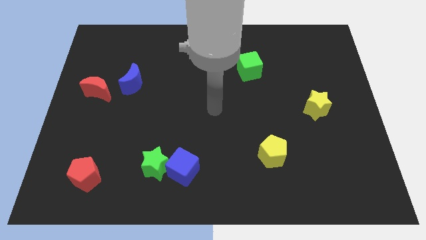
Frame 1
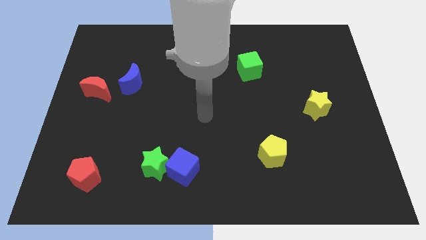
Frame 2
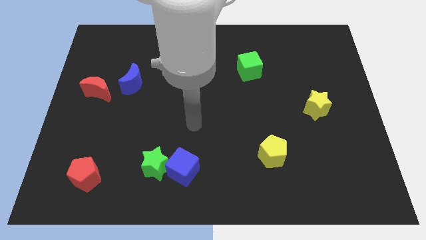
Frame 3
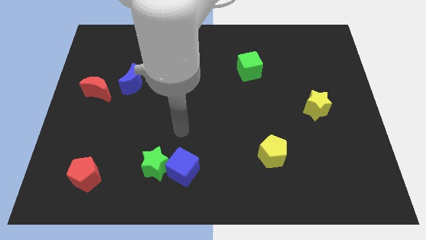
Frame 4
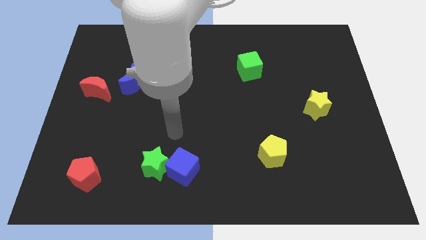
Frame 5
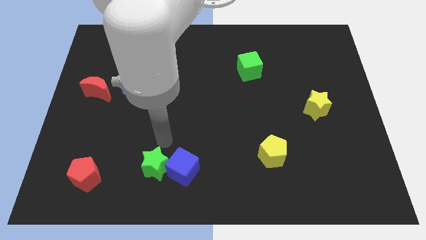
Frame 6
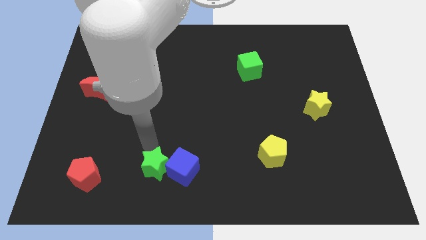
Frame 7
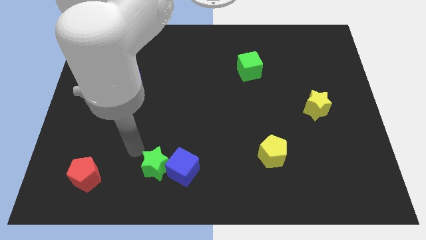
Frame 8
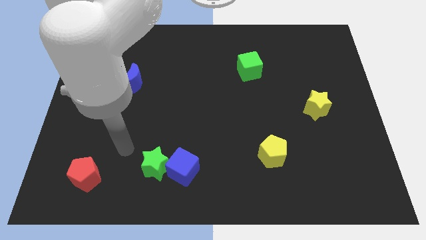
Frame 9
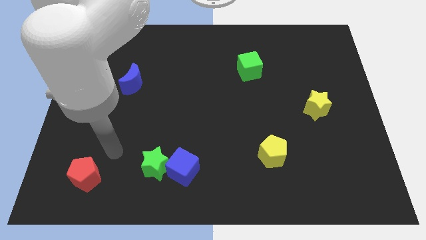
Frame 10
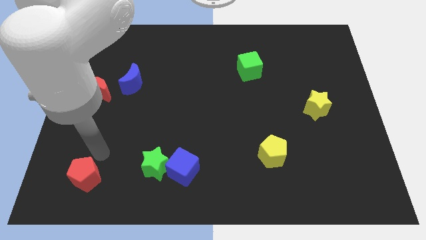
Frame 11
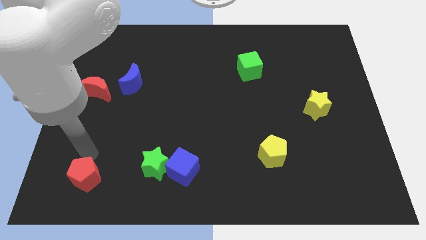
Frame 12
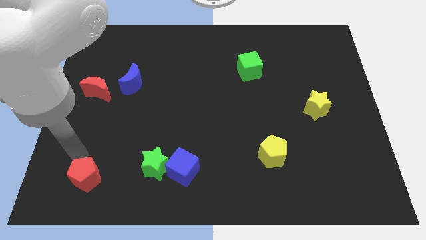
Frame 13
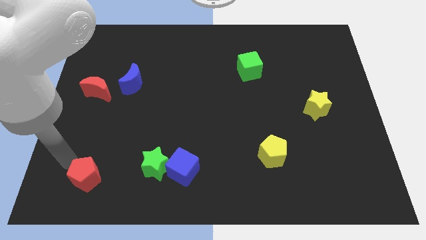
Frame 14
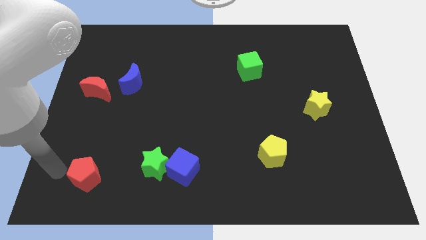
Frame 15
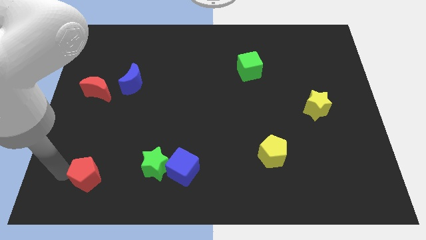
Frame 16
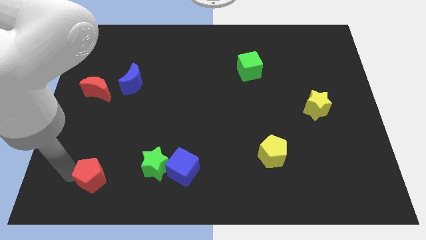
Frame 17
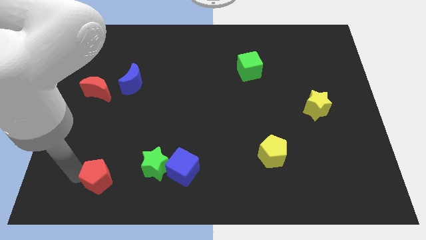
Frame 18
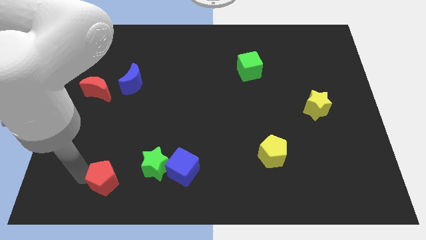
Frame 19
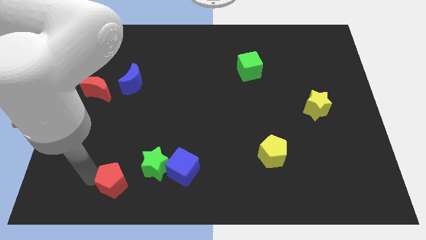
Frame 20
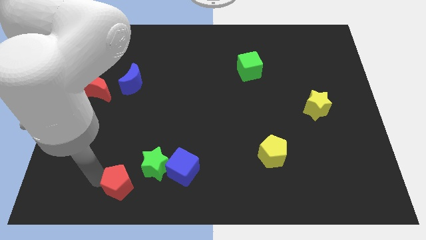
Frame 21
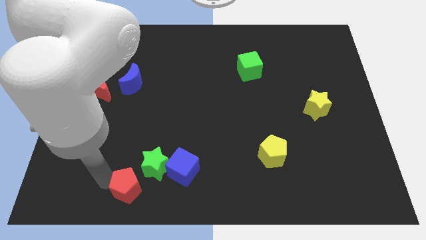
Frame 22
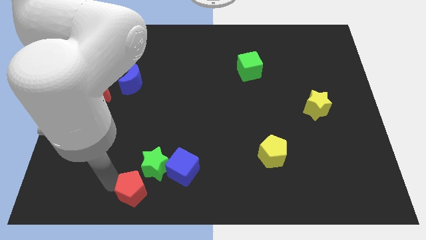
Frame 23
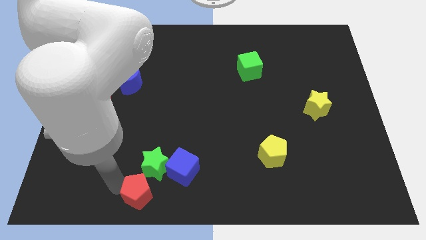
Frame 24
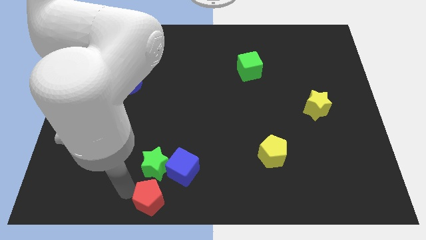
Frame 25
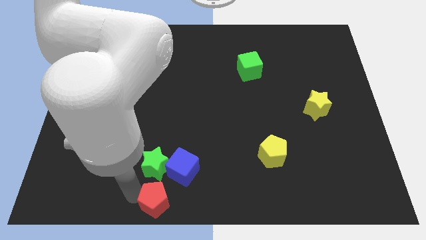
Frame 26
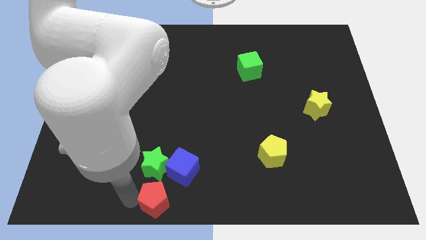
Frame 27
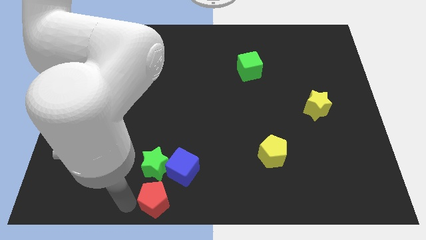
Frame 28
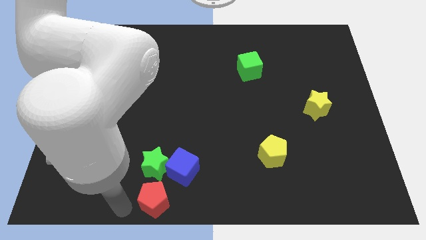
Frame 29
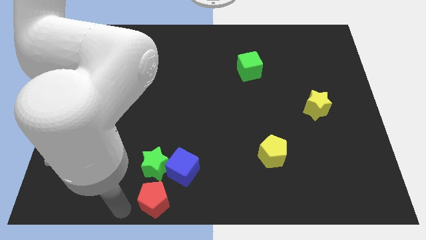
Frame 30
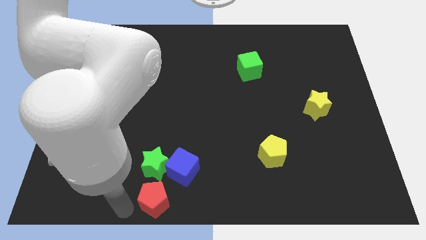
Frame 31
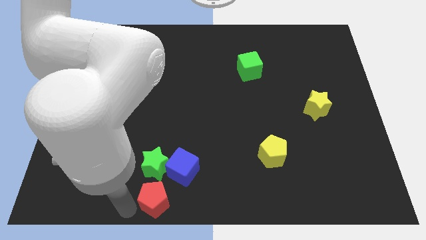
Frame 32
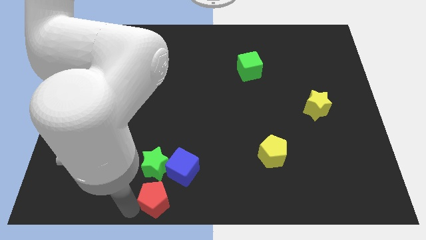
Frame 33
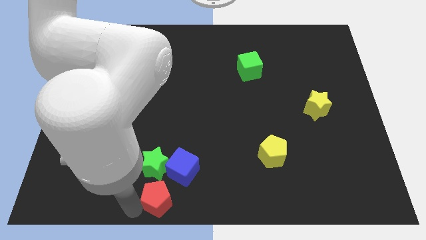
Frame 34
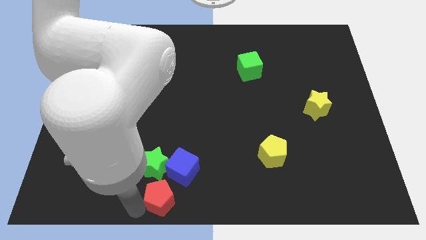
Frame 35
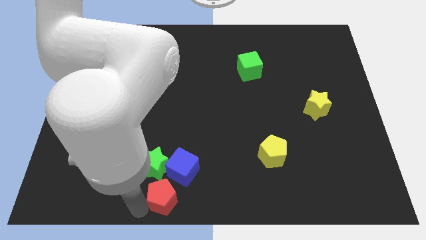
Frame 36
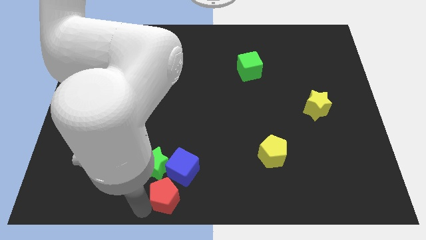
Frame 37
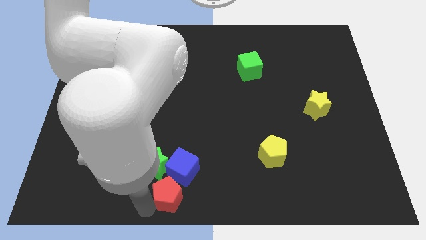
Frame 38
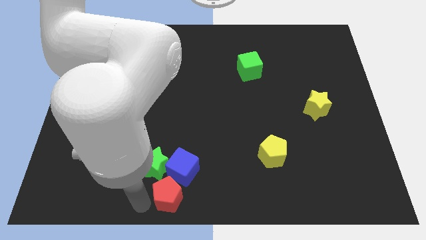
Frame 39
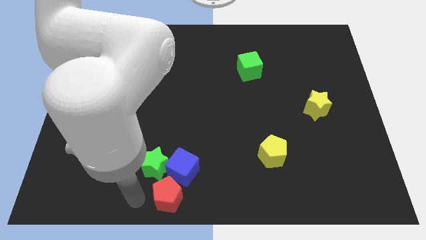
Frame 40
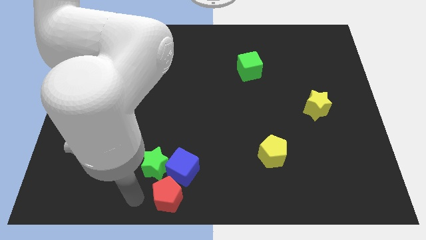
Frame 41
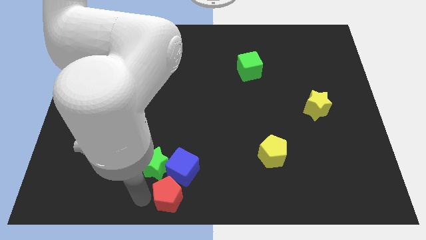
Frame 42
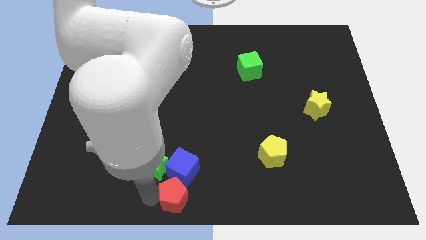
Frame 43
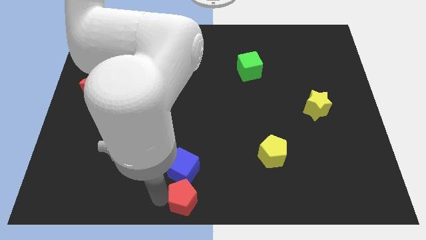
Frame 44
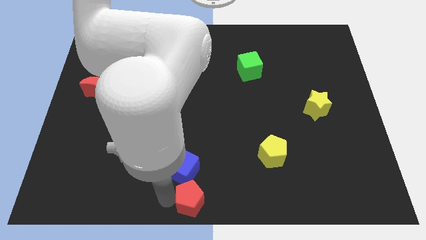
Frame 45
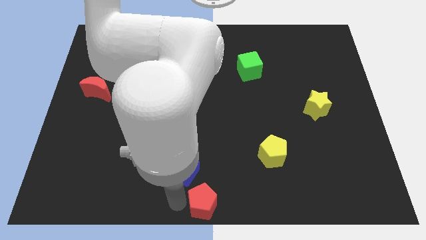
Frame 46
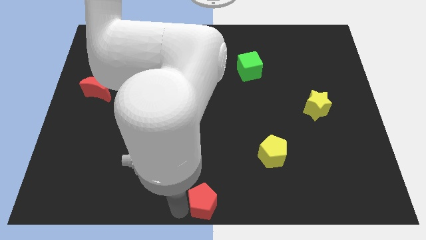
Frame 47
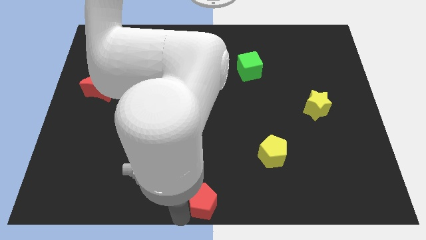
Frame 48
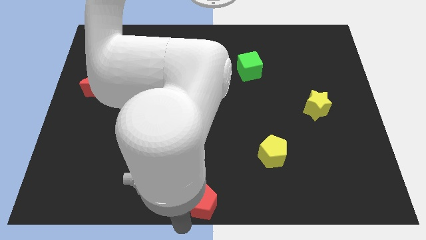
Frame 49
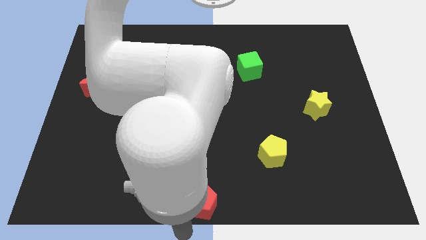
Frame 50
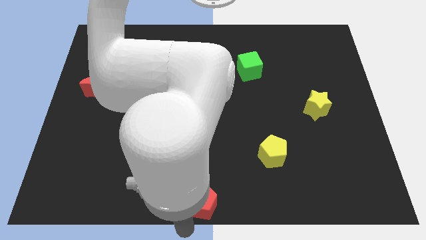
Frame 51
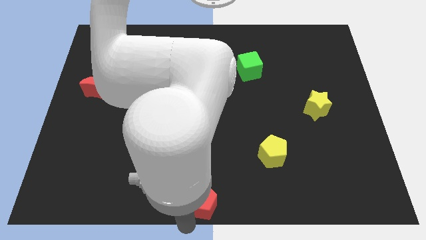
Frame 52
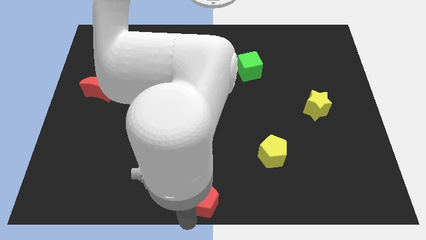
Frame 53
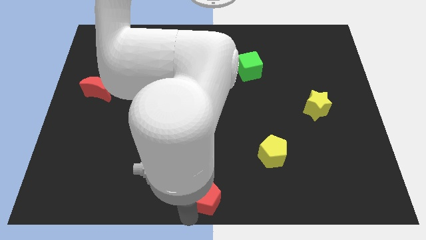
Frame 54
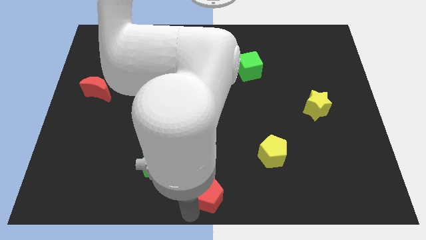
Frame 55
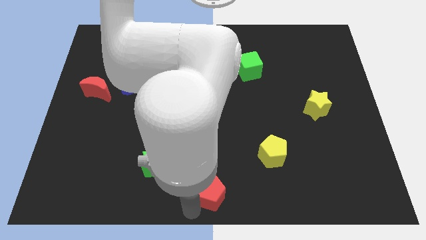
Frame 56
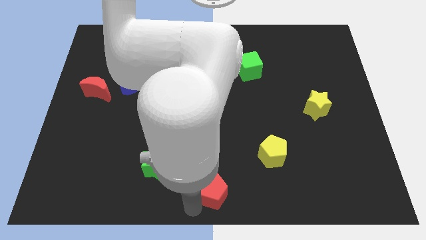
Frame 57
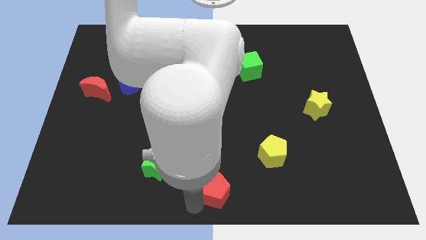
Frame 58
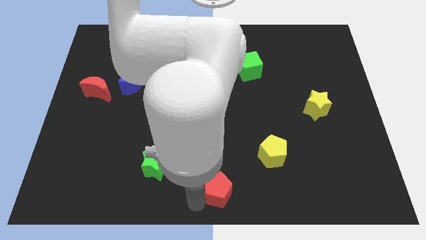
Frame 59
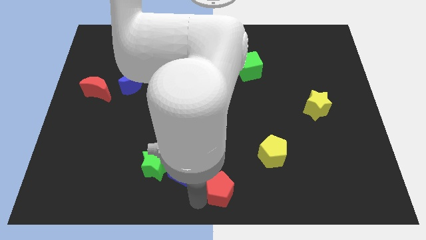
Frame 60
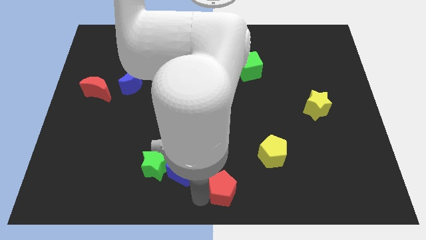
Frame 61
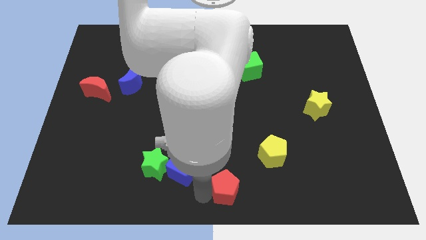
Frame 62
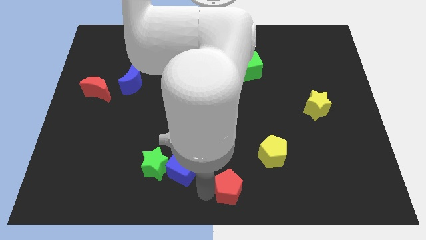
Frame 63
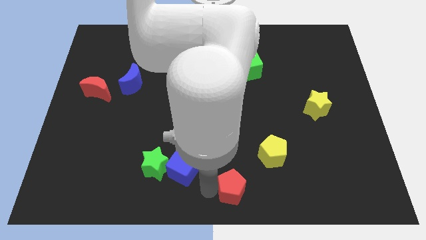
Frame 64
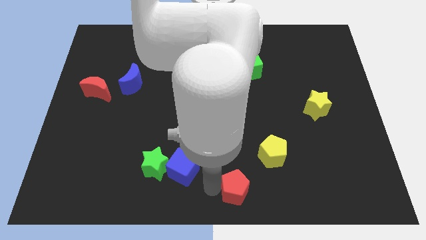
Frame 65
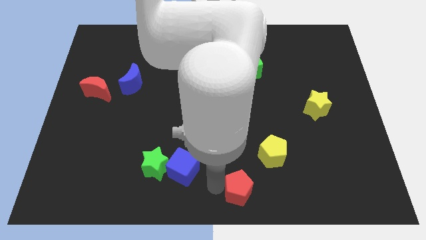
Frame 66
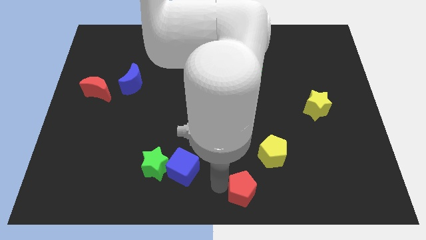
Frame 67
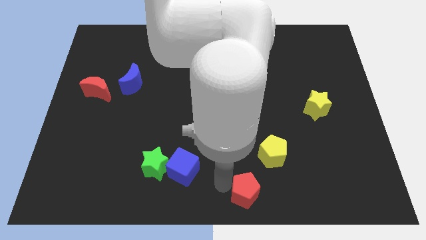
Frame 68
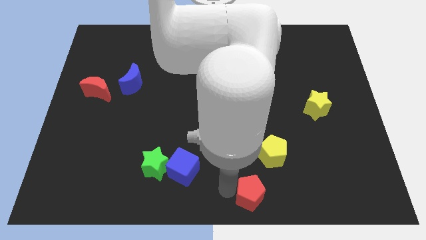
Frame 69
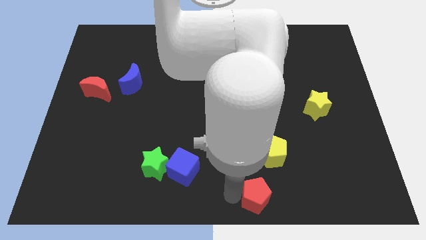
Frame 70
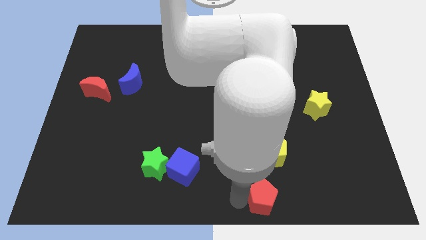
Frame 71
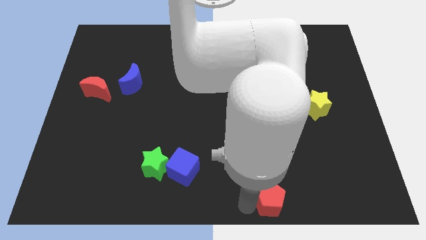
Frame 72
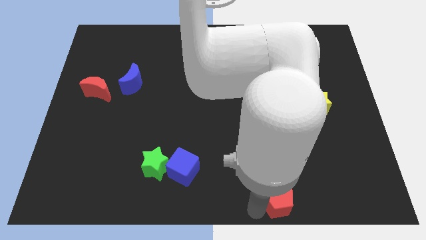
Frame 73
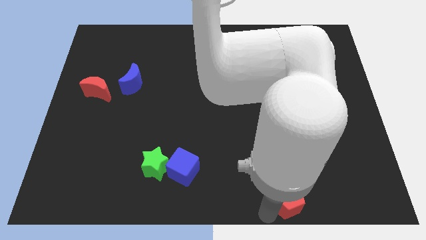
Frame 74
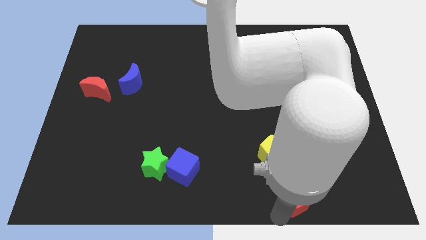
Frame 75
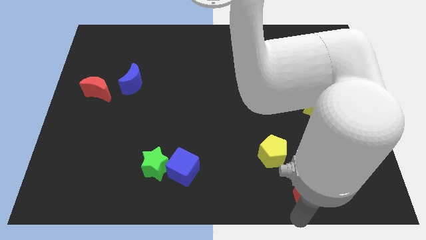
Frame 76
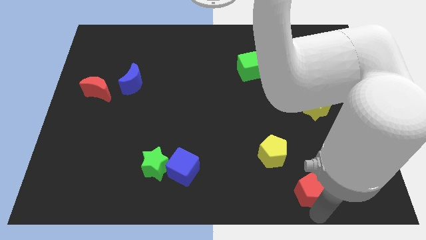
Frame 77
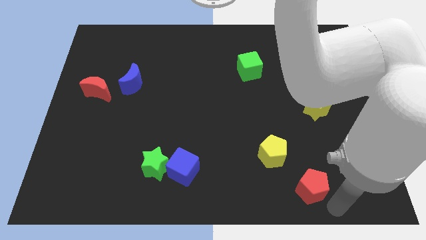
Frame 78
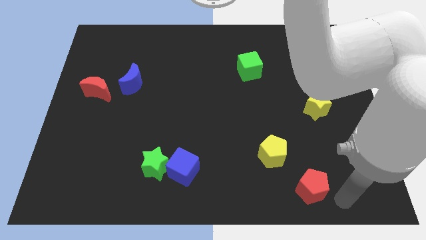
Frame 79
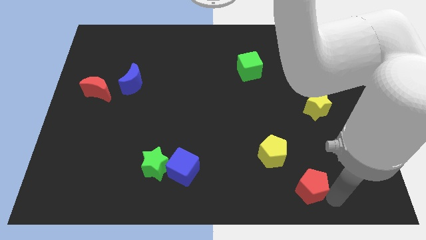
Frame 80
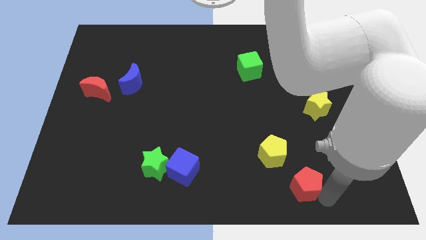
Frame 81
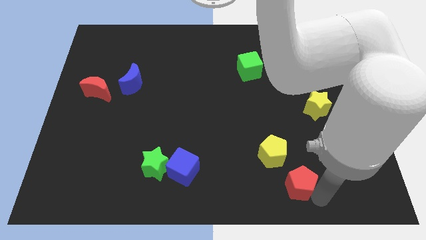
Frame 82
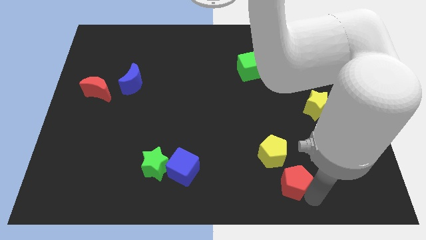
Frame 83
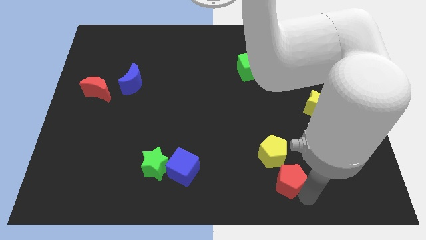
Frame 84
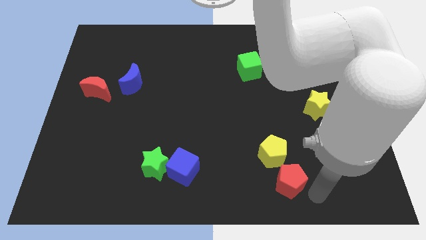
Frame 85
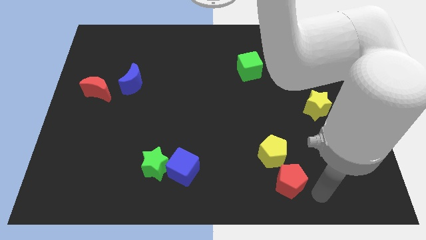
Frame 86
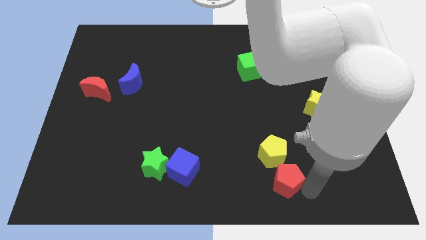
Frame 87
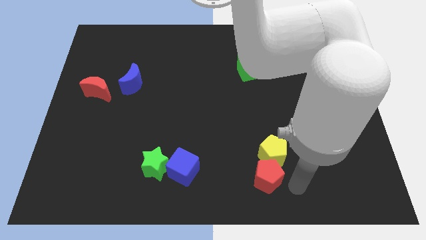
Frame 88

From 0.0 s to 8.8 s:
put the red pentagon towards the yellow pentagon
